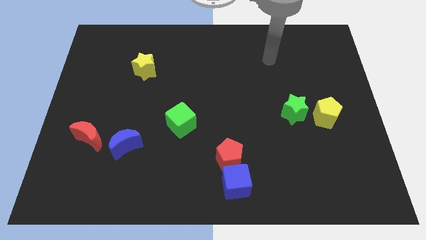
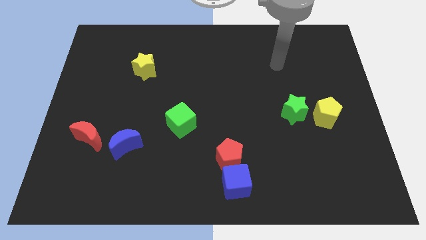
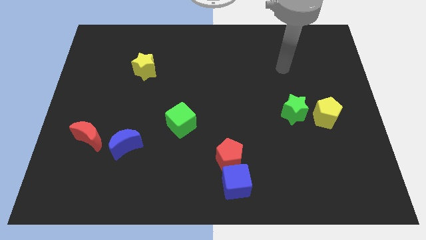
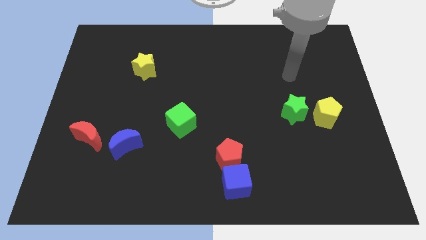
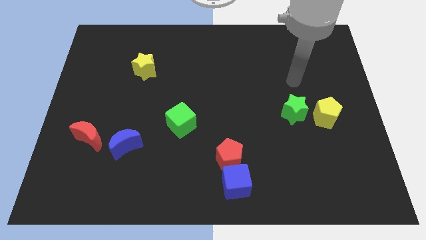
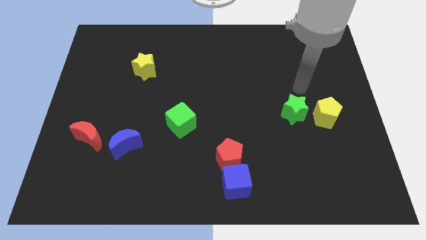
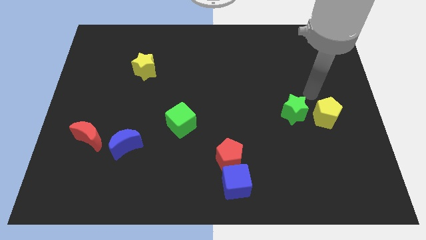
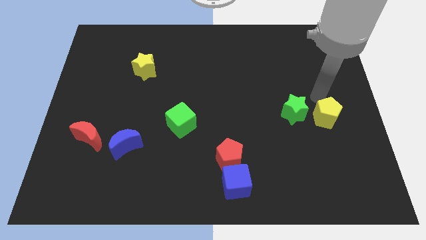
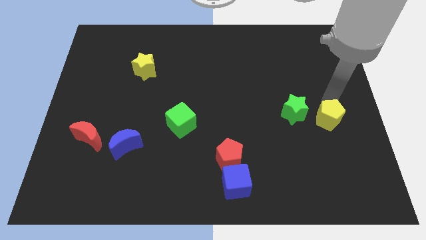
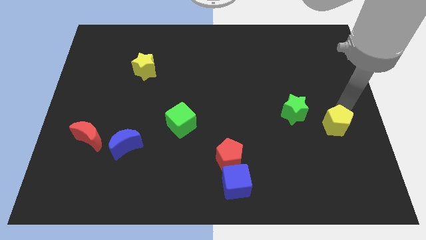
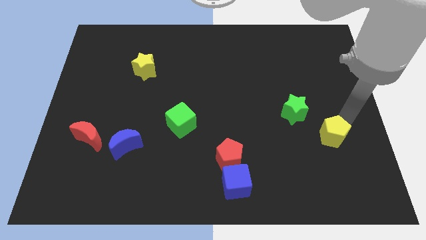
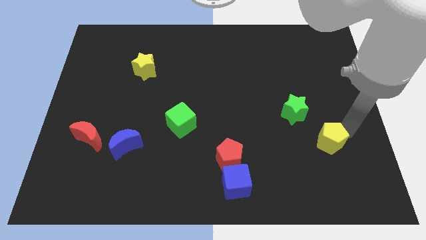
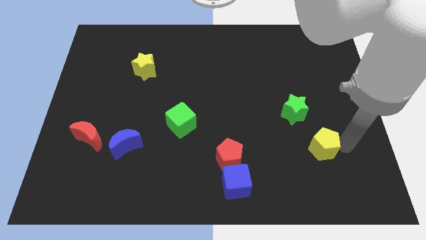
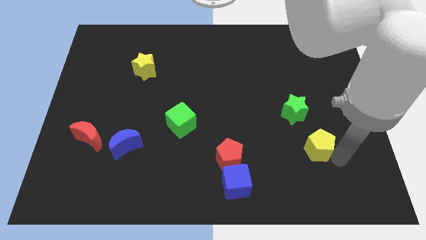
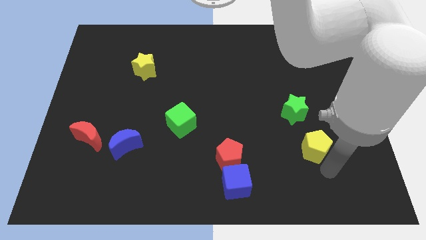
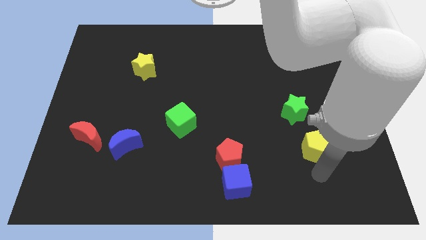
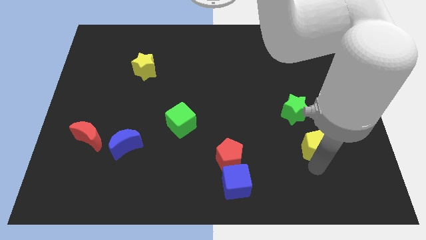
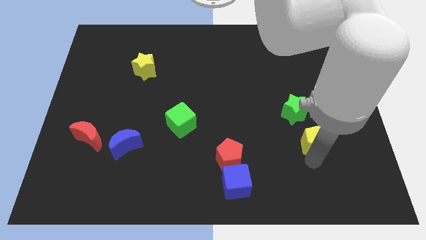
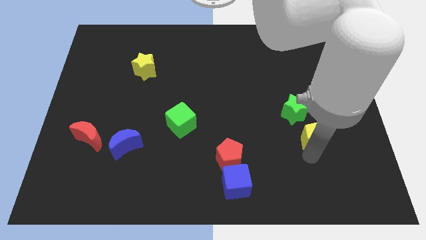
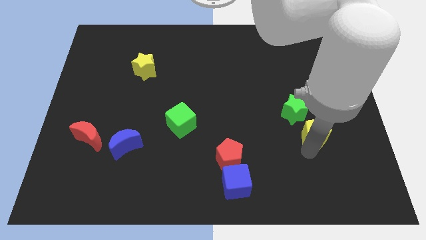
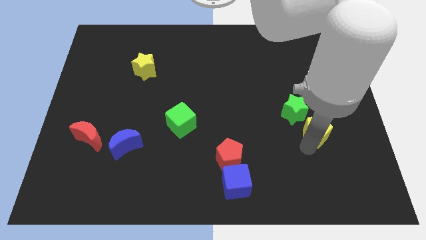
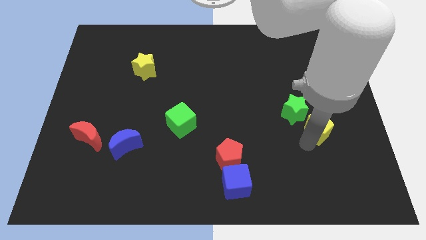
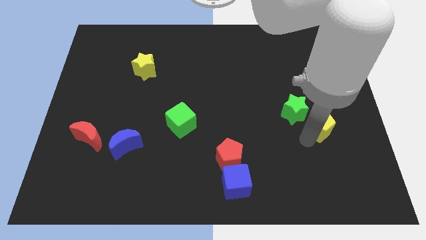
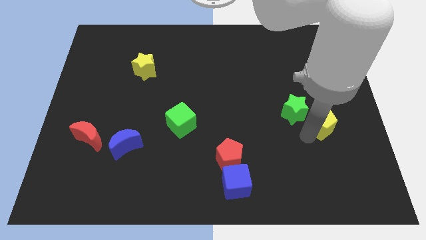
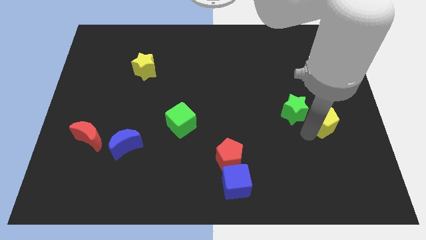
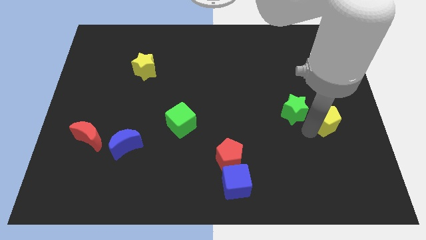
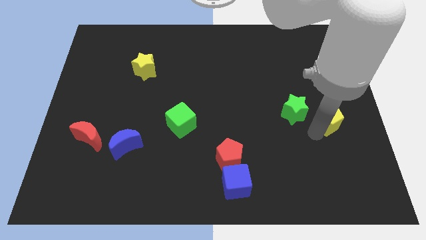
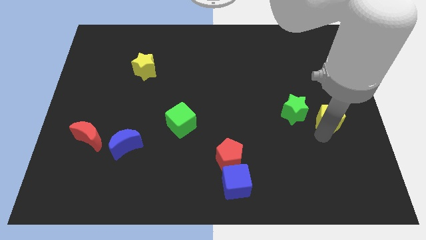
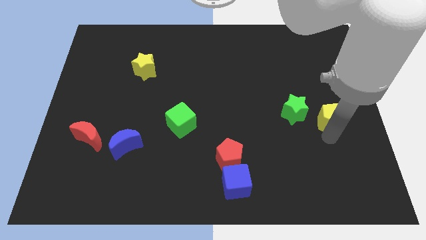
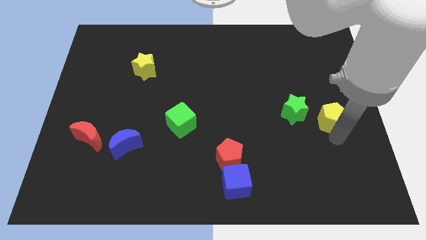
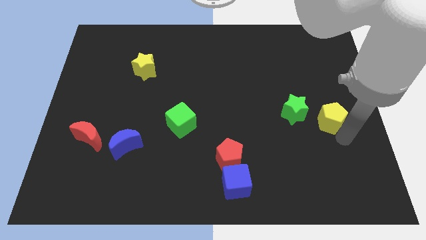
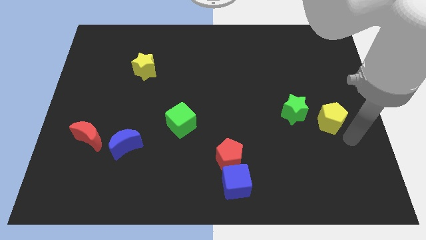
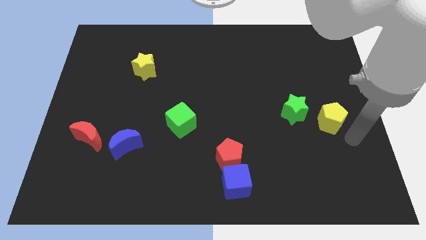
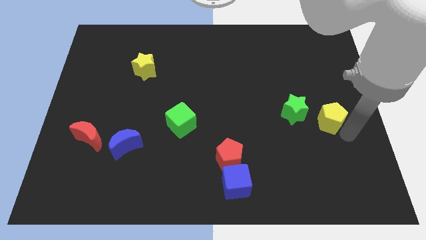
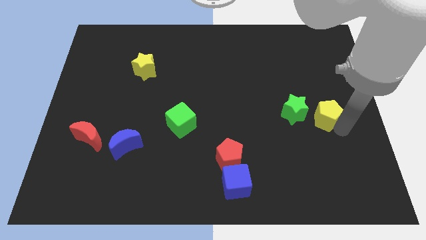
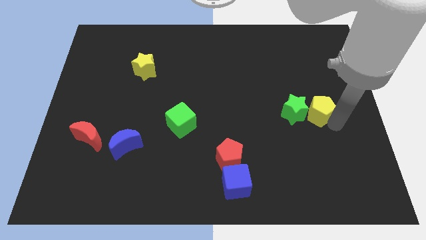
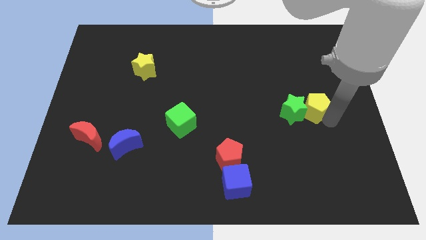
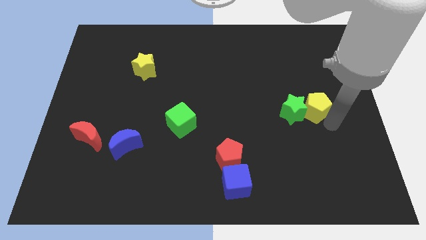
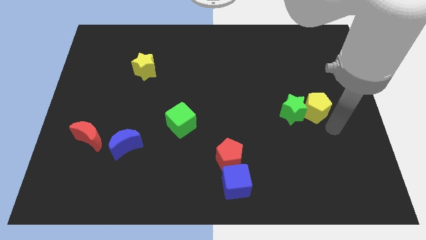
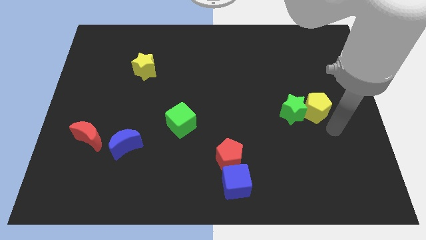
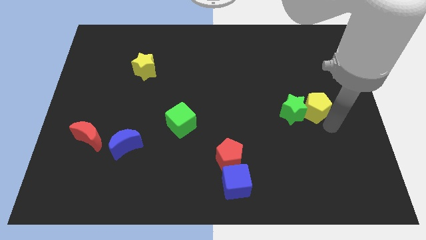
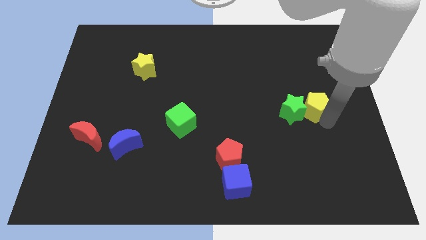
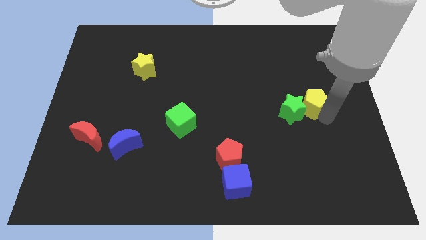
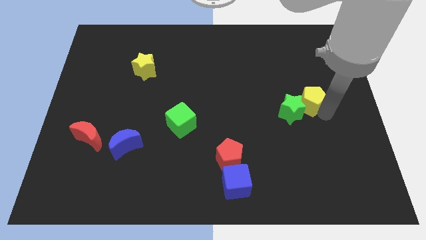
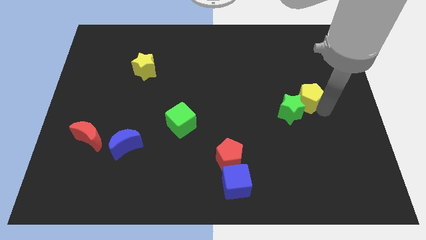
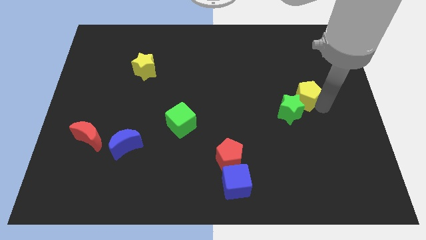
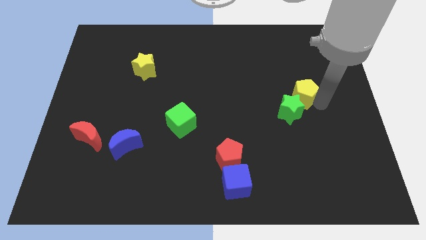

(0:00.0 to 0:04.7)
slightly push the yellow pentagon up and left diagonally

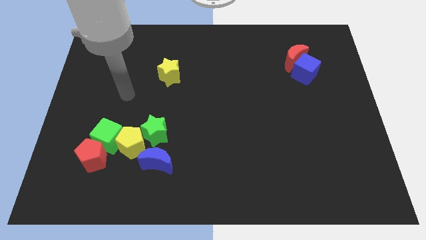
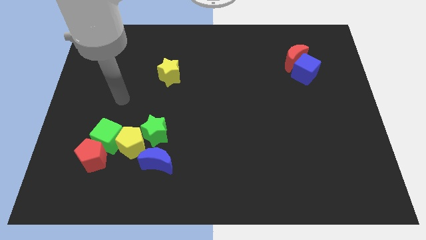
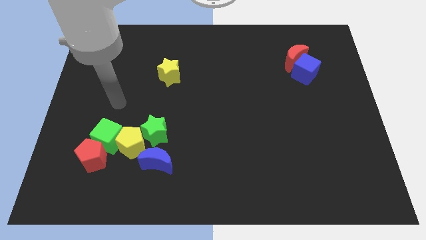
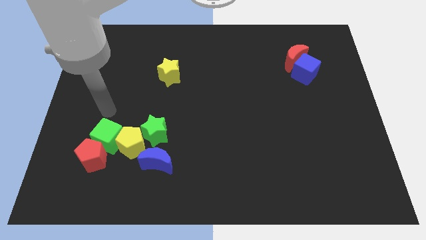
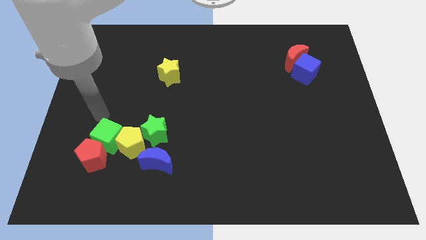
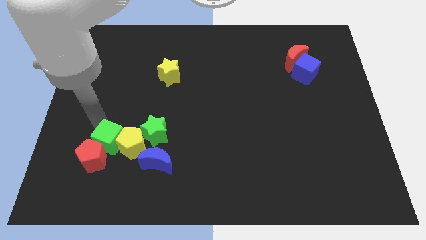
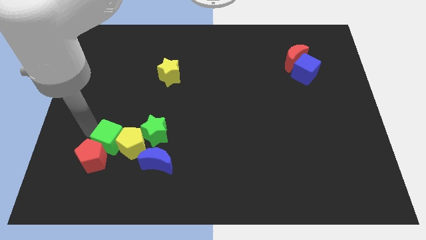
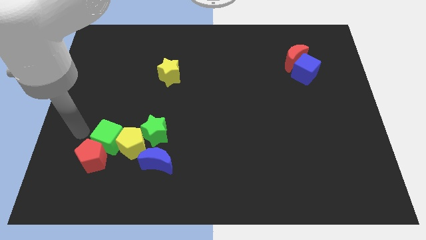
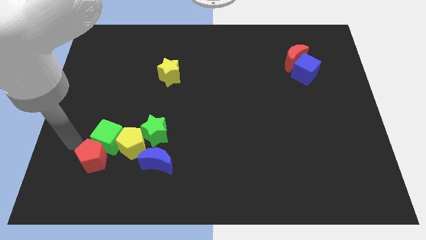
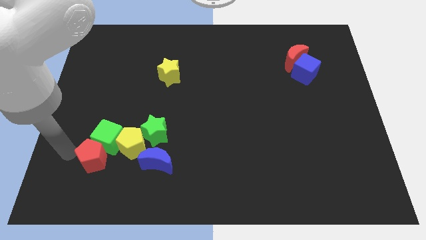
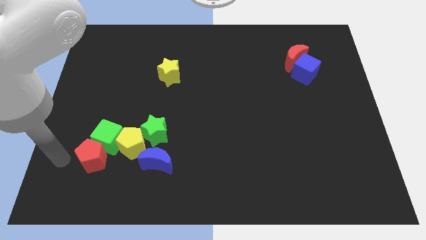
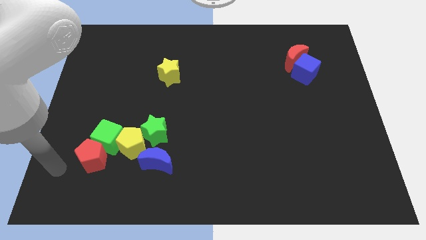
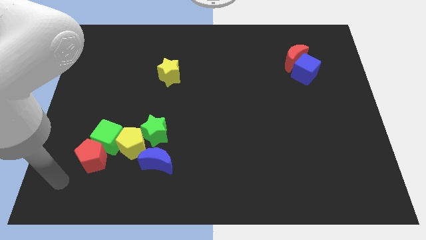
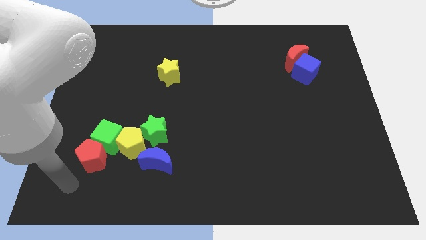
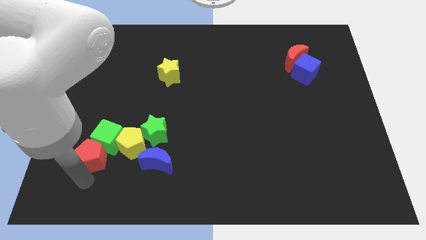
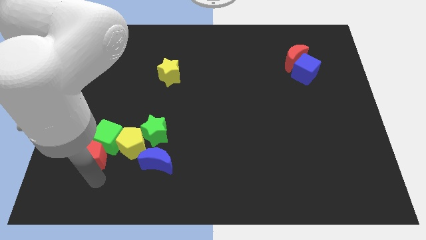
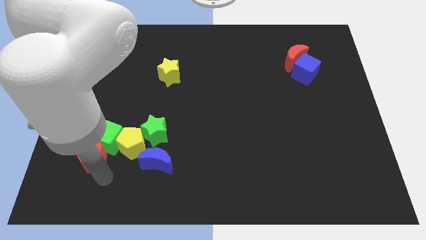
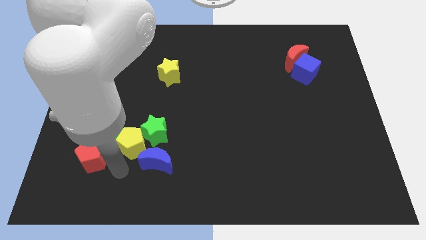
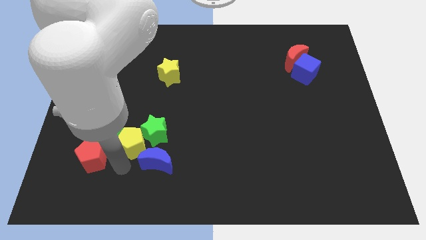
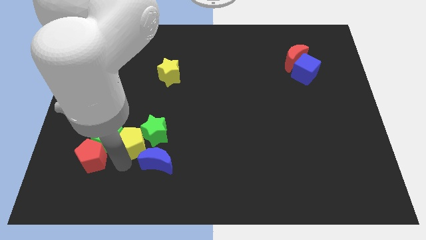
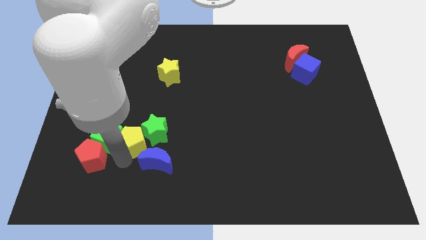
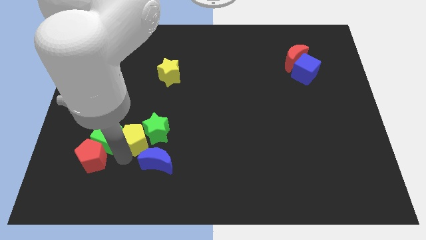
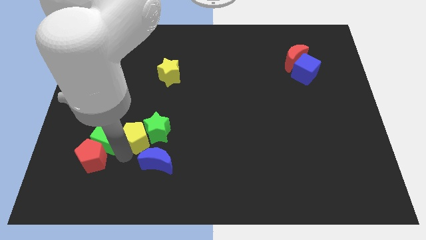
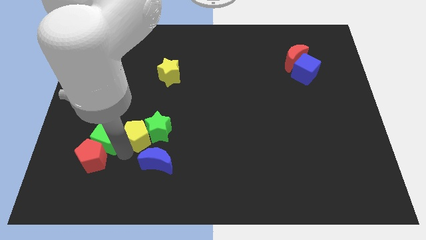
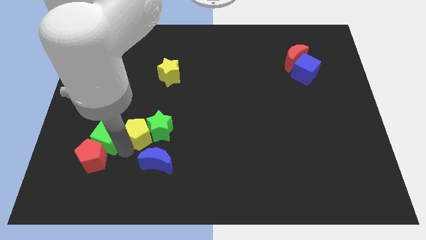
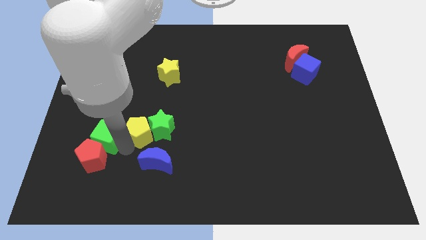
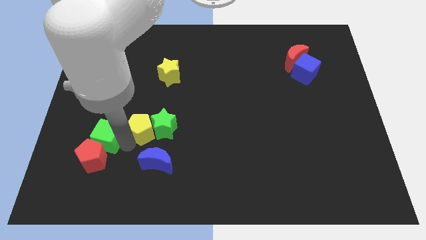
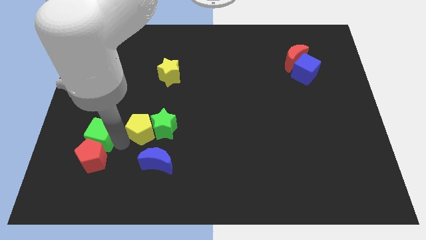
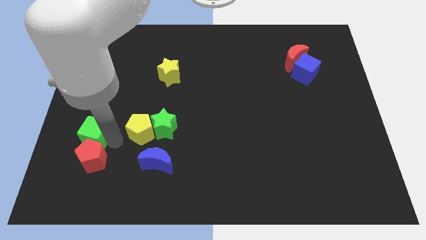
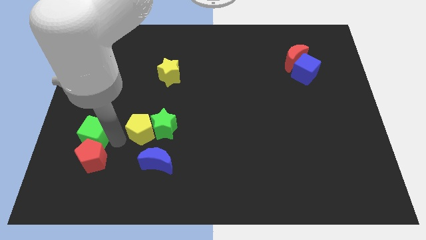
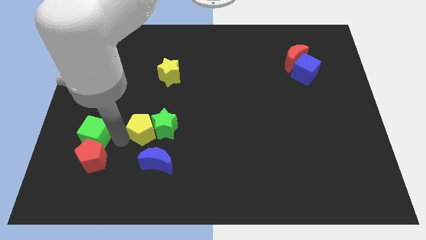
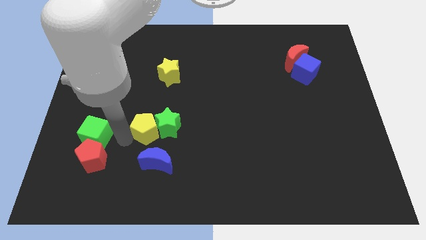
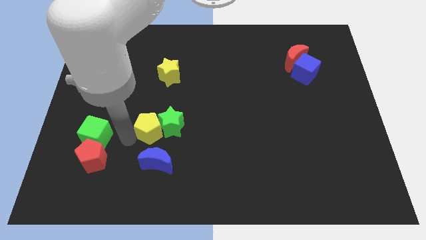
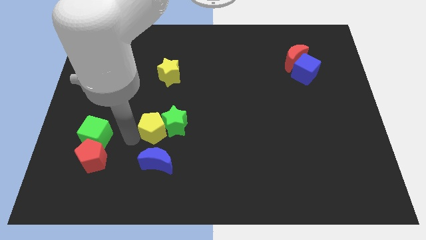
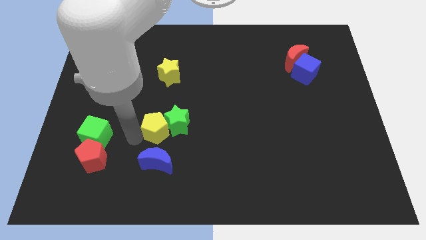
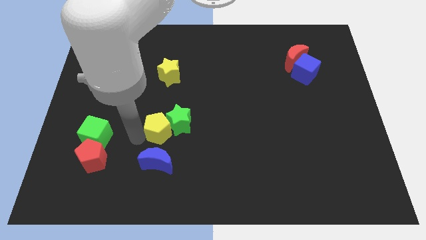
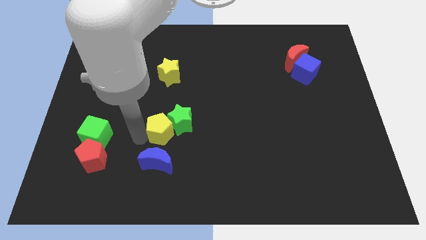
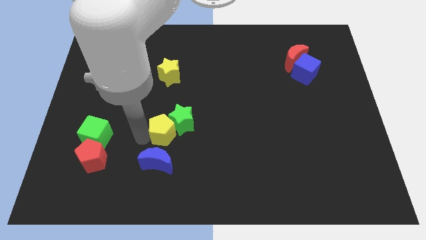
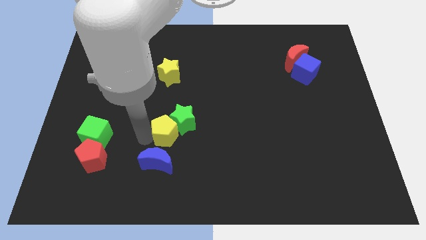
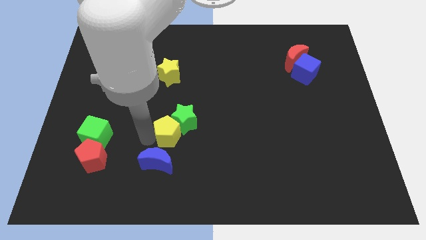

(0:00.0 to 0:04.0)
move the yellow pentagon to the right a little
